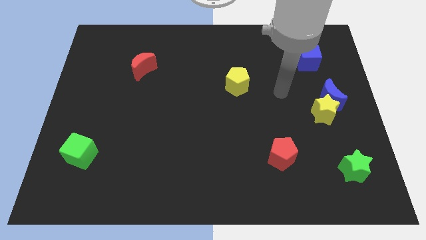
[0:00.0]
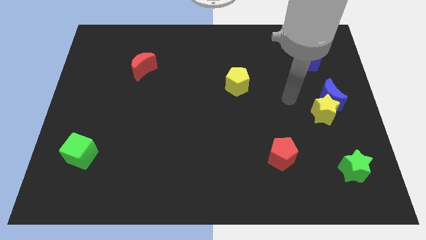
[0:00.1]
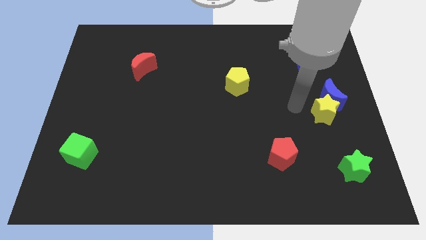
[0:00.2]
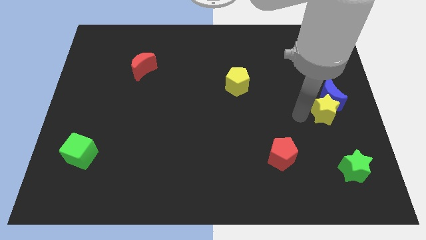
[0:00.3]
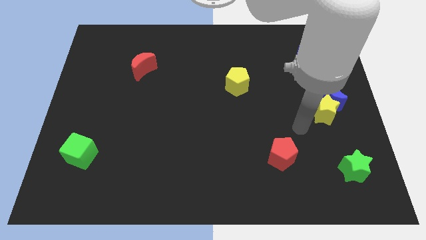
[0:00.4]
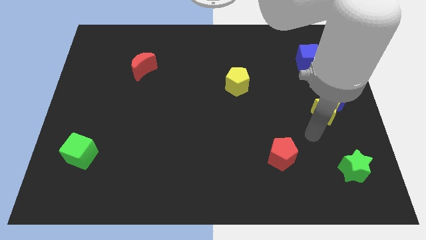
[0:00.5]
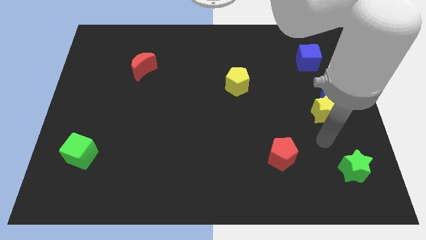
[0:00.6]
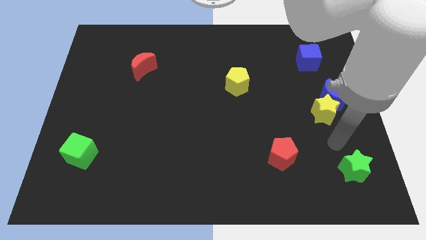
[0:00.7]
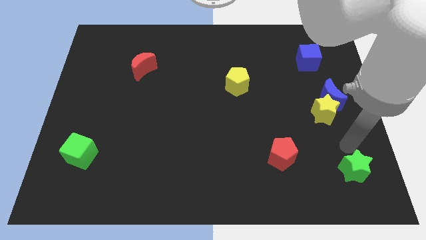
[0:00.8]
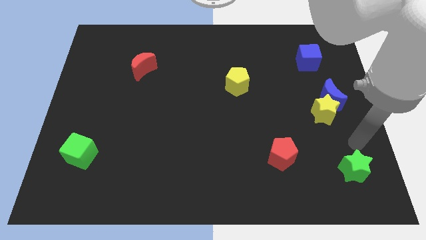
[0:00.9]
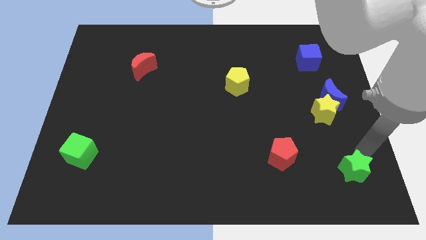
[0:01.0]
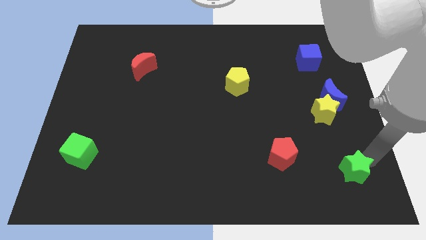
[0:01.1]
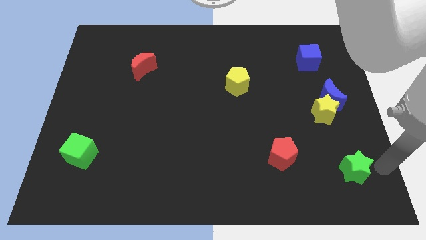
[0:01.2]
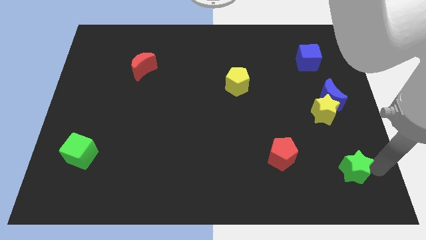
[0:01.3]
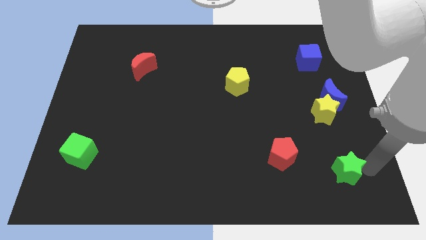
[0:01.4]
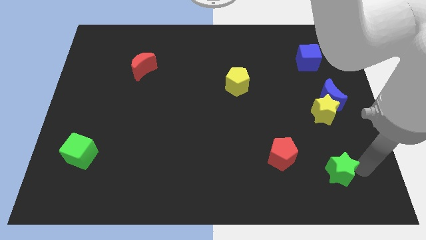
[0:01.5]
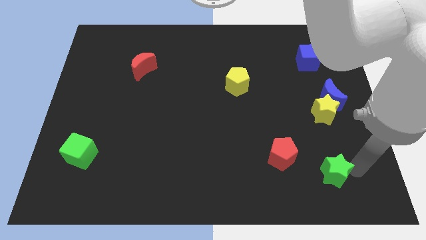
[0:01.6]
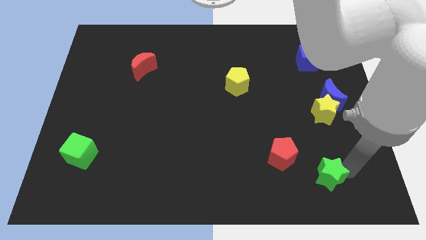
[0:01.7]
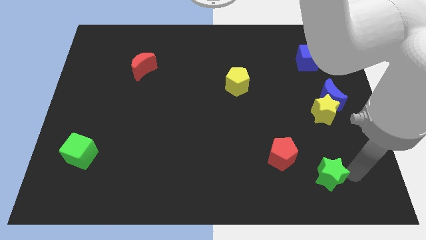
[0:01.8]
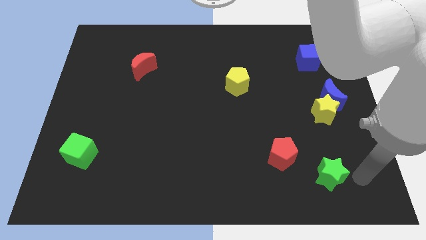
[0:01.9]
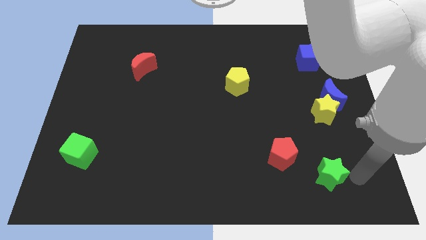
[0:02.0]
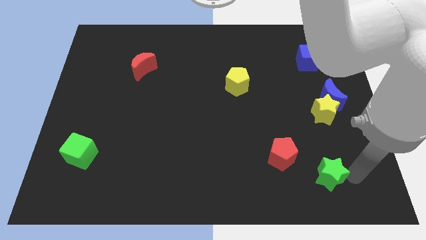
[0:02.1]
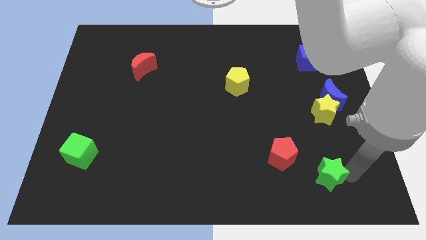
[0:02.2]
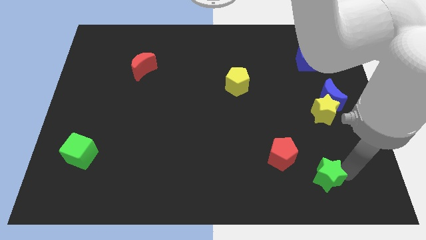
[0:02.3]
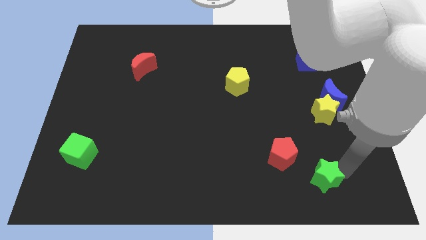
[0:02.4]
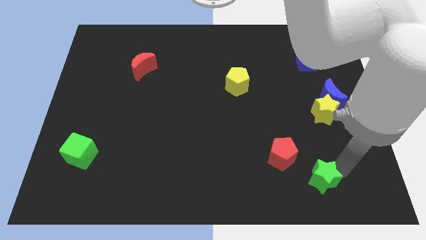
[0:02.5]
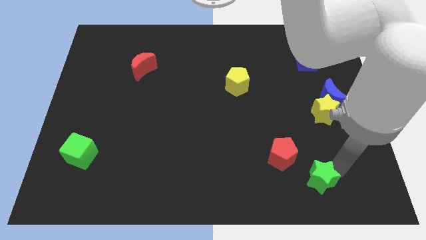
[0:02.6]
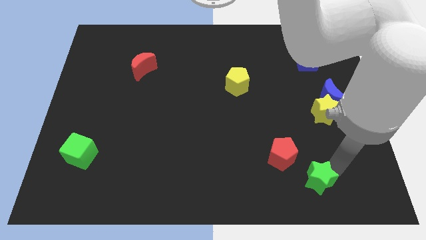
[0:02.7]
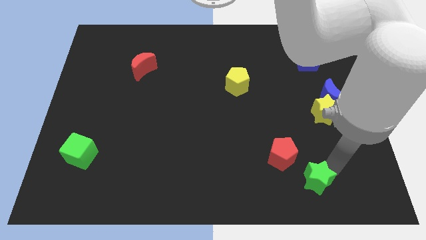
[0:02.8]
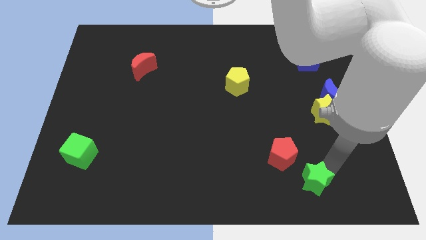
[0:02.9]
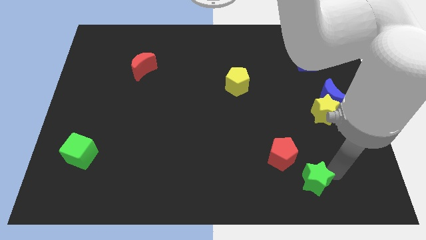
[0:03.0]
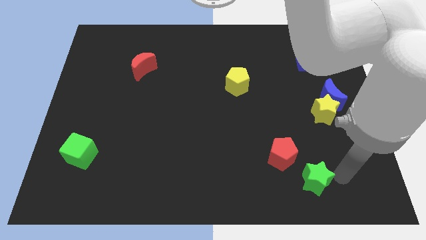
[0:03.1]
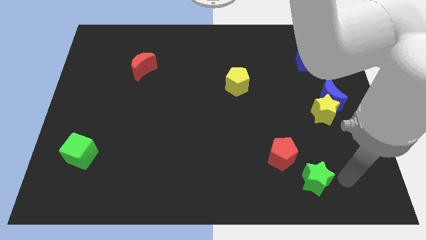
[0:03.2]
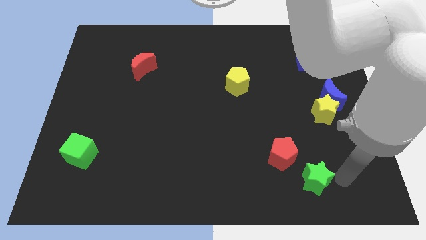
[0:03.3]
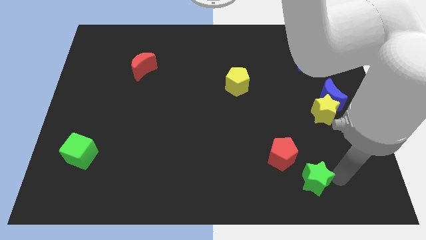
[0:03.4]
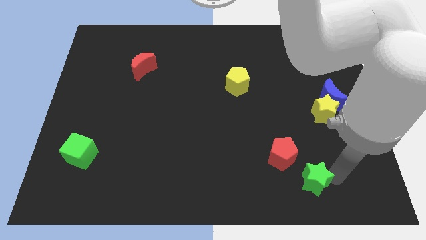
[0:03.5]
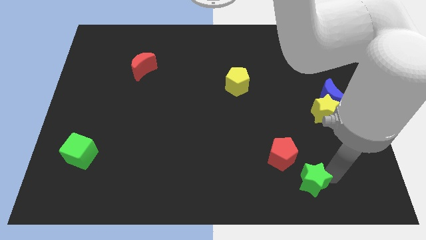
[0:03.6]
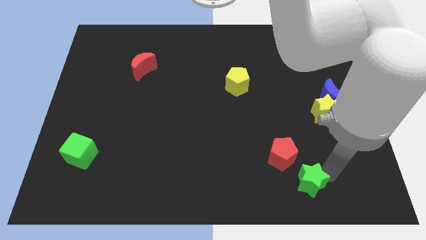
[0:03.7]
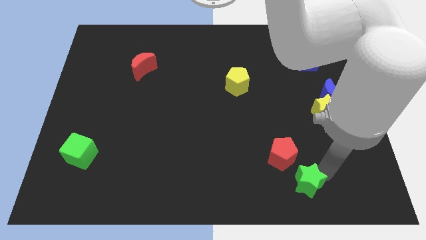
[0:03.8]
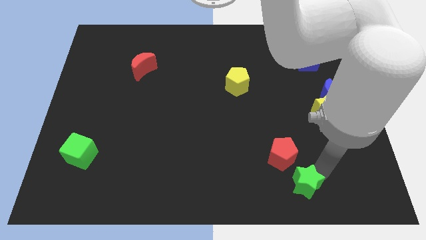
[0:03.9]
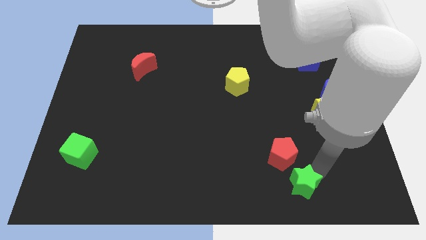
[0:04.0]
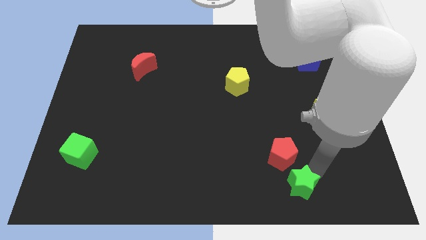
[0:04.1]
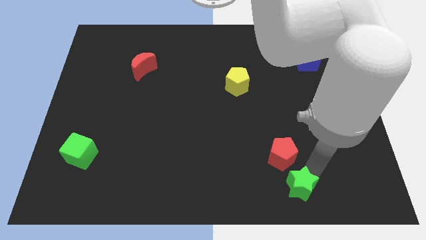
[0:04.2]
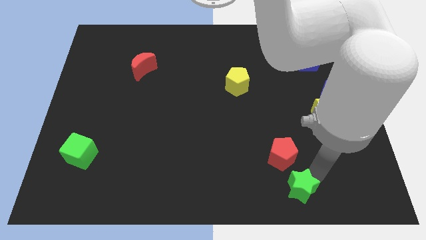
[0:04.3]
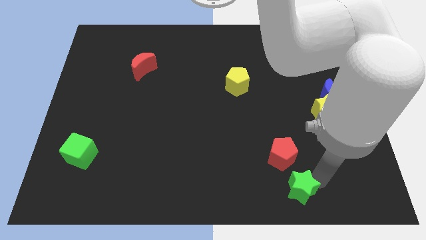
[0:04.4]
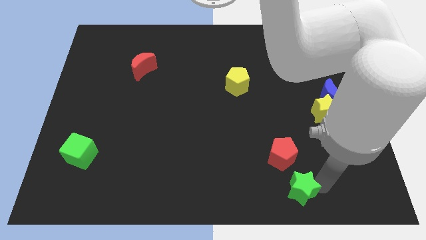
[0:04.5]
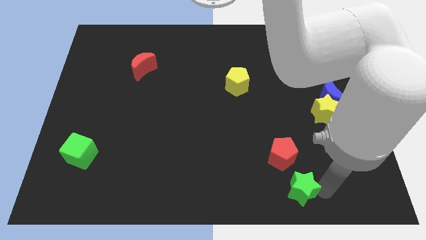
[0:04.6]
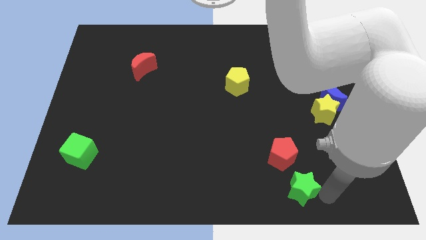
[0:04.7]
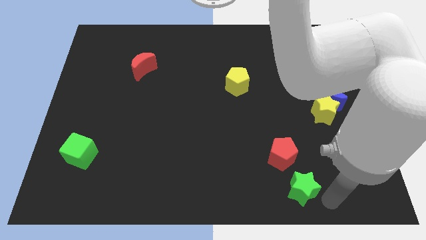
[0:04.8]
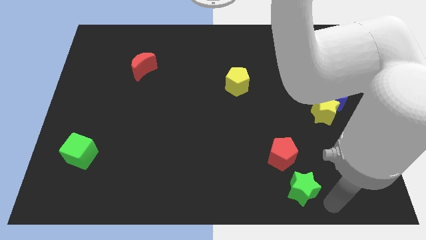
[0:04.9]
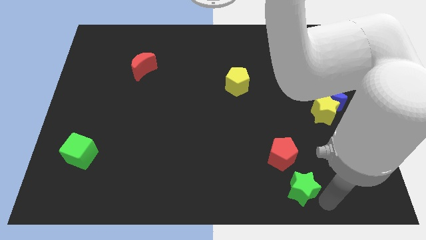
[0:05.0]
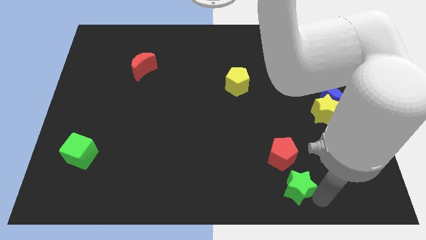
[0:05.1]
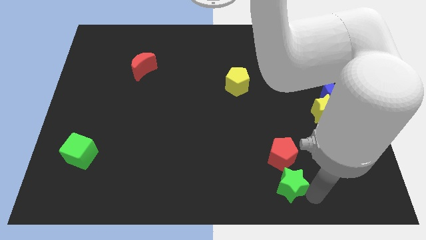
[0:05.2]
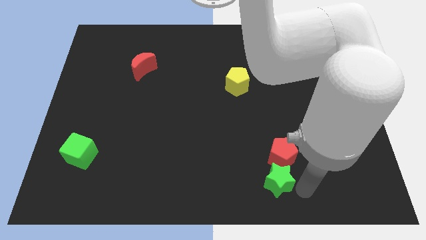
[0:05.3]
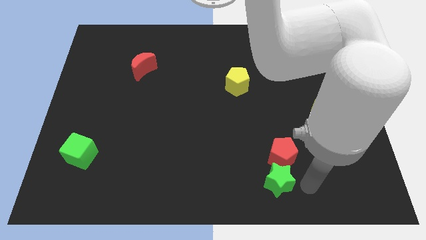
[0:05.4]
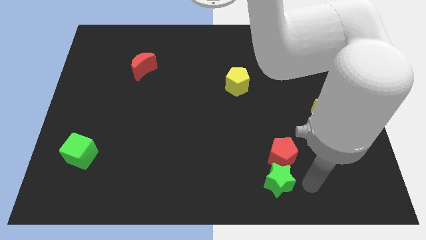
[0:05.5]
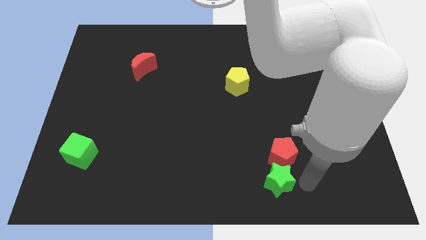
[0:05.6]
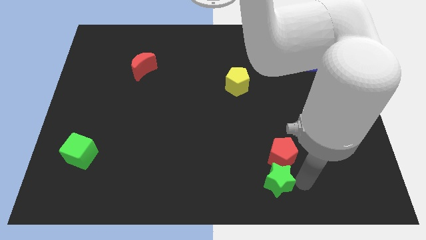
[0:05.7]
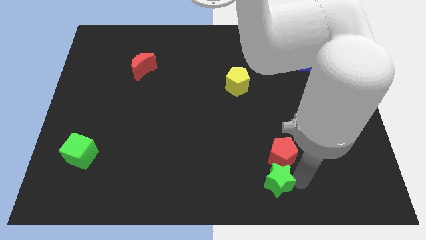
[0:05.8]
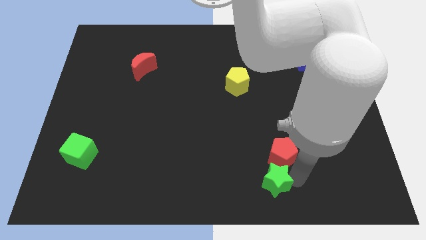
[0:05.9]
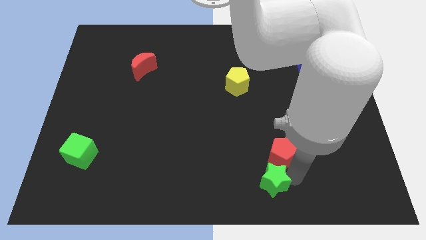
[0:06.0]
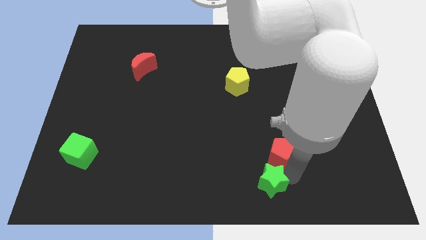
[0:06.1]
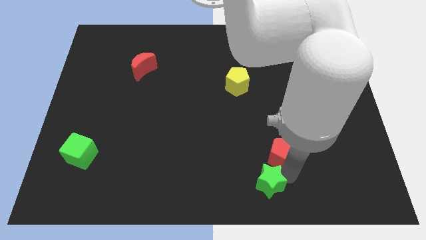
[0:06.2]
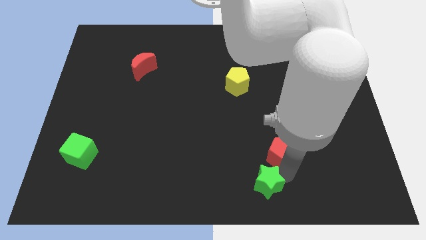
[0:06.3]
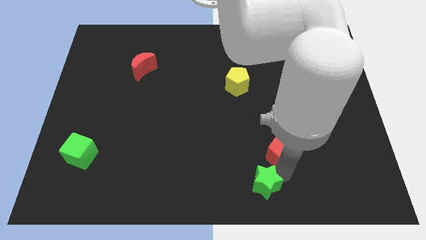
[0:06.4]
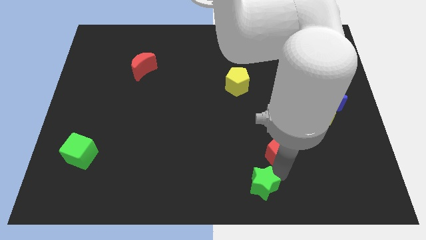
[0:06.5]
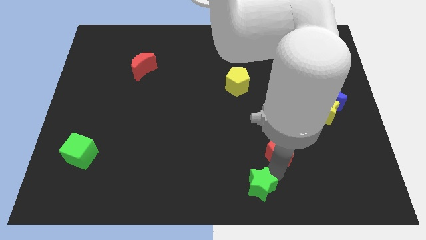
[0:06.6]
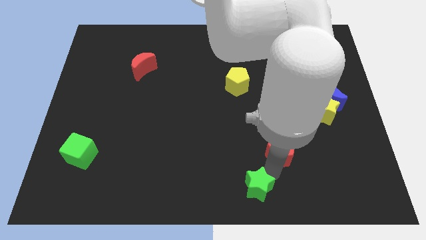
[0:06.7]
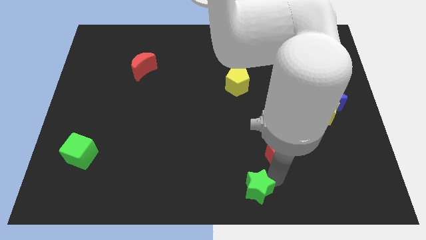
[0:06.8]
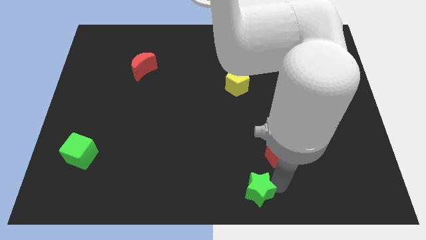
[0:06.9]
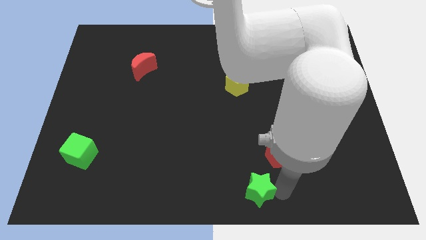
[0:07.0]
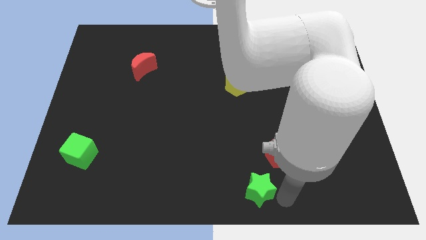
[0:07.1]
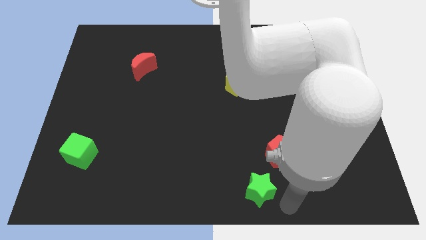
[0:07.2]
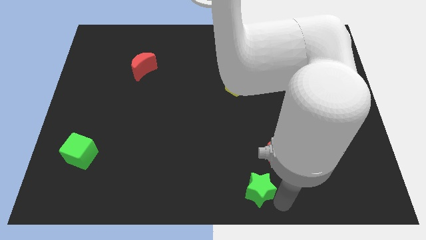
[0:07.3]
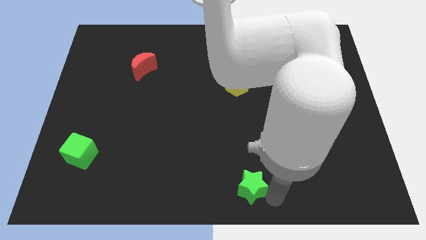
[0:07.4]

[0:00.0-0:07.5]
move the green star left

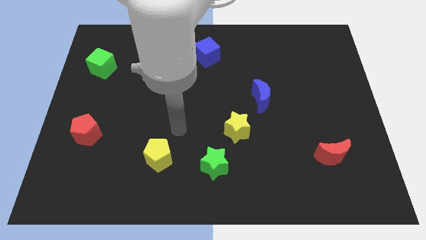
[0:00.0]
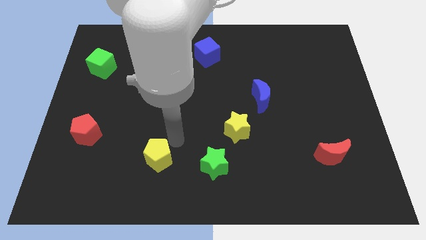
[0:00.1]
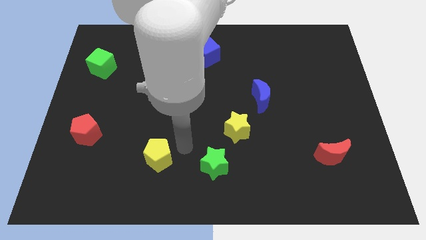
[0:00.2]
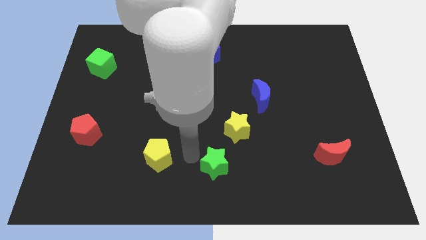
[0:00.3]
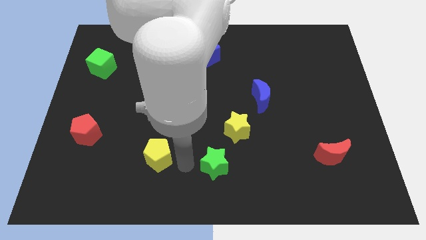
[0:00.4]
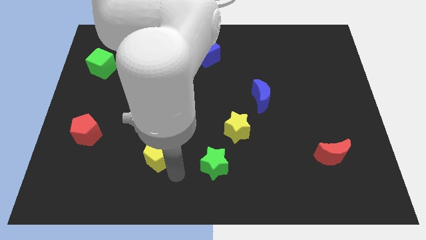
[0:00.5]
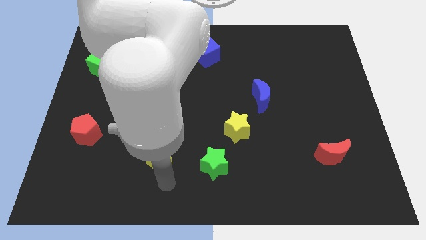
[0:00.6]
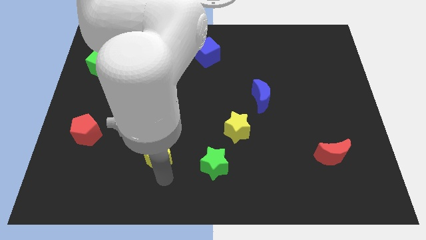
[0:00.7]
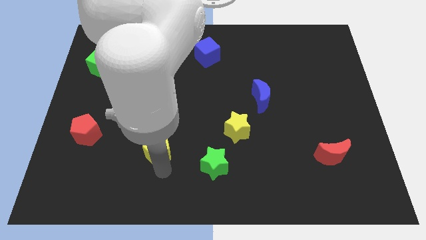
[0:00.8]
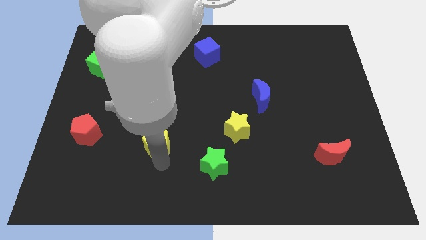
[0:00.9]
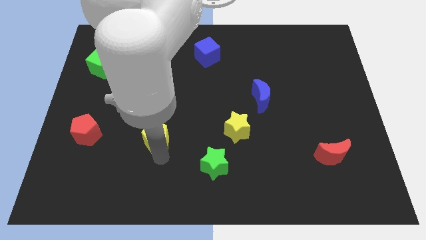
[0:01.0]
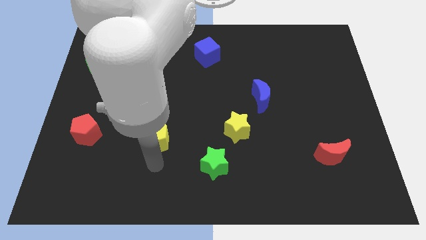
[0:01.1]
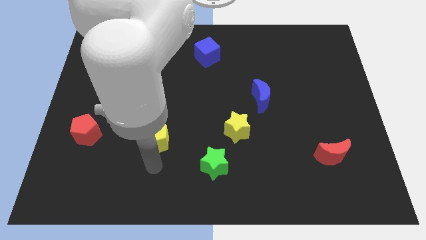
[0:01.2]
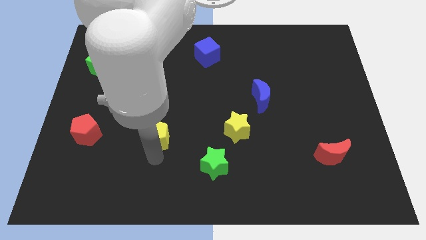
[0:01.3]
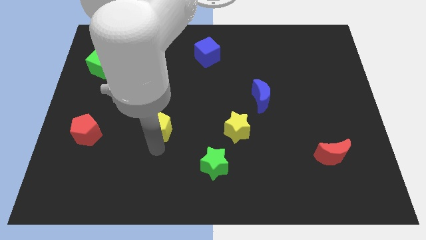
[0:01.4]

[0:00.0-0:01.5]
slide the yellow pentagon up a little
